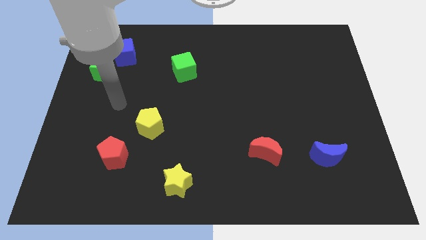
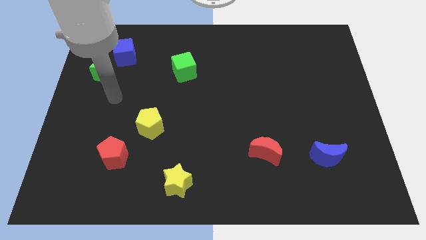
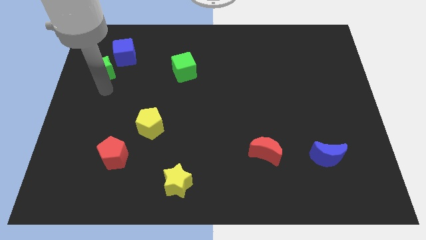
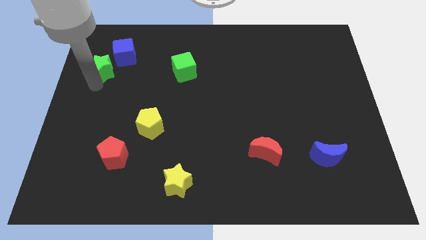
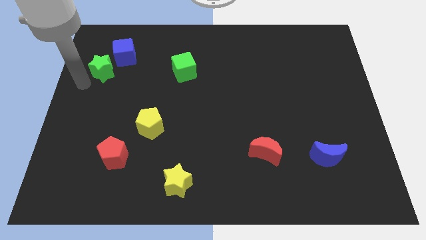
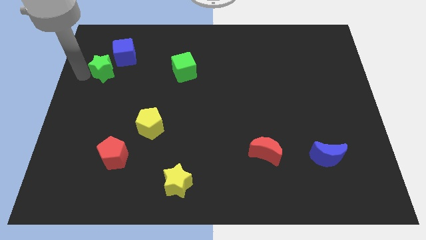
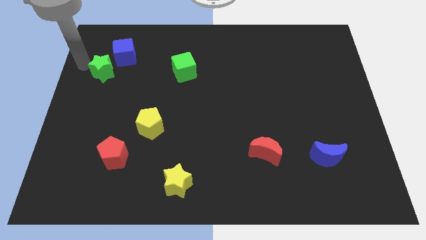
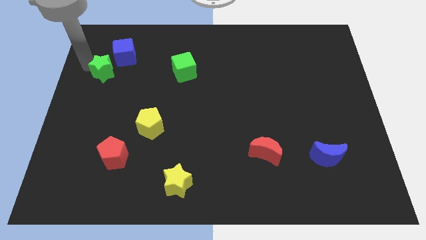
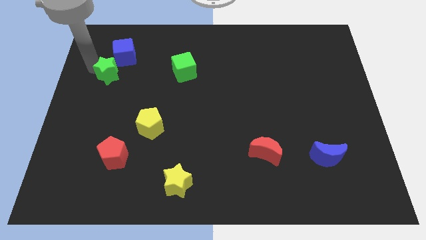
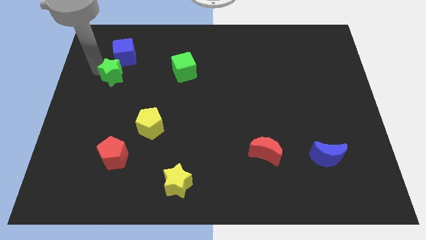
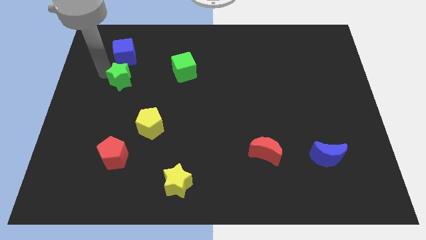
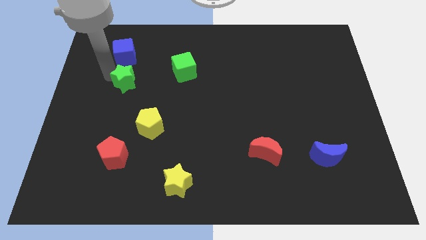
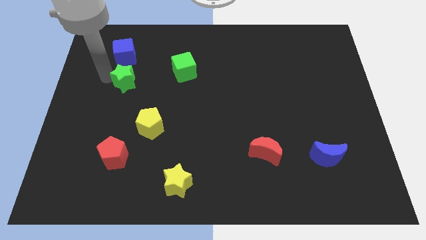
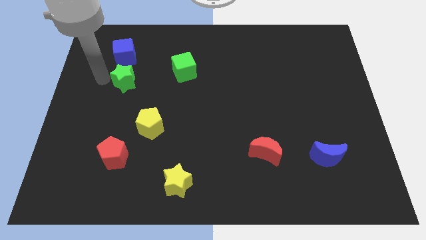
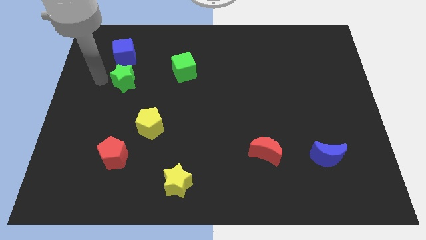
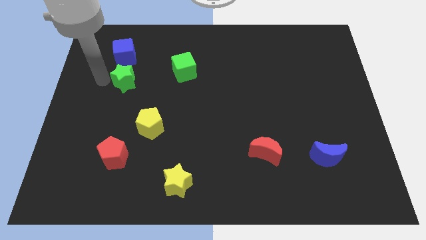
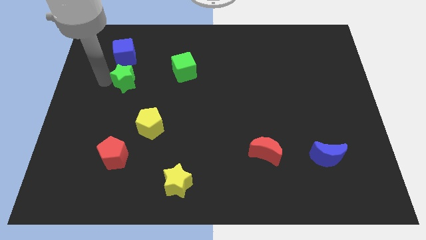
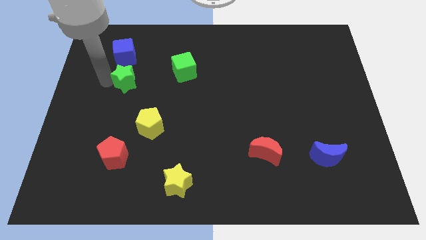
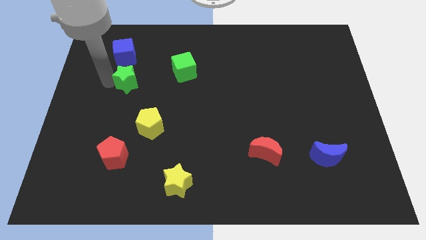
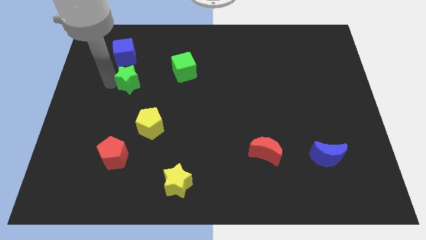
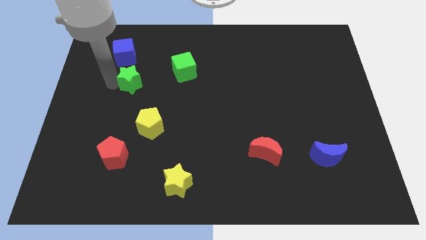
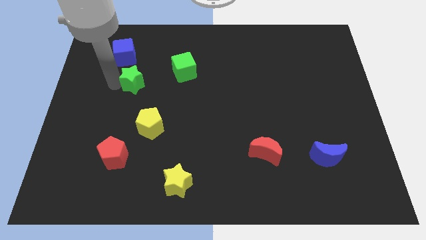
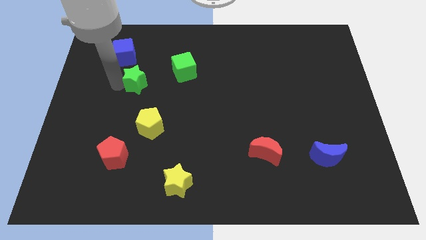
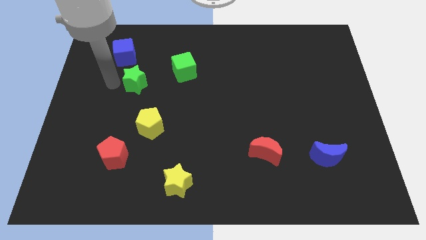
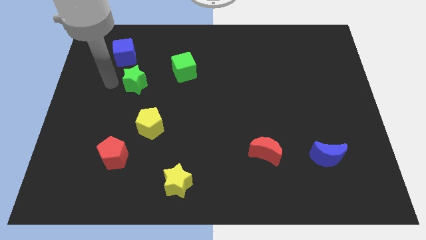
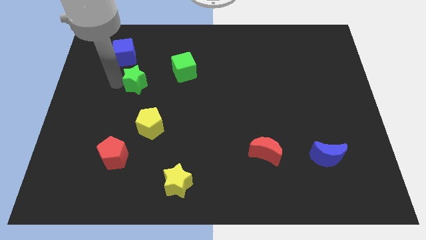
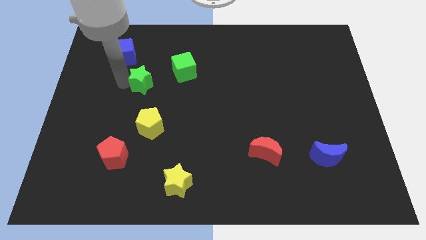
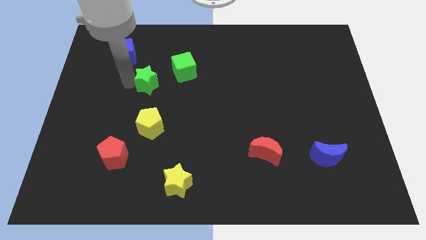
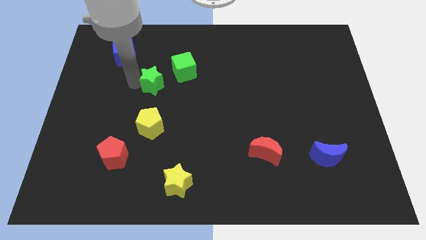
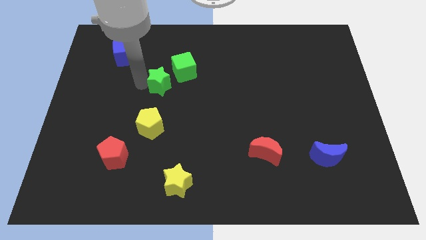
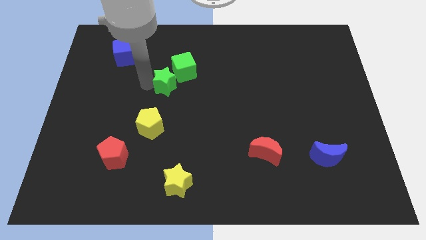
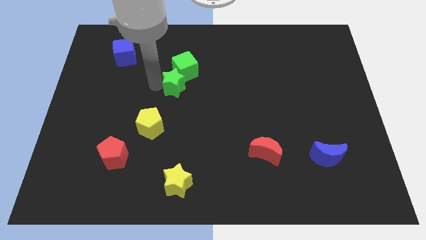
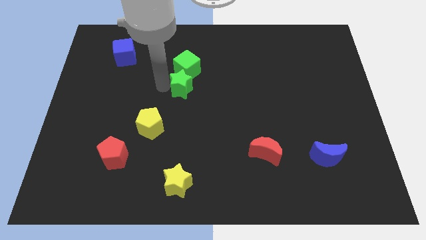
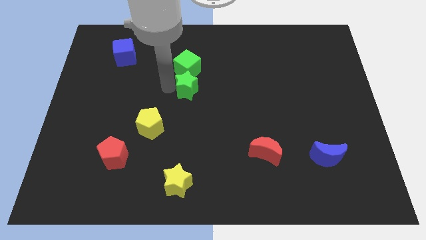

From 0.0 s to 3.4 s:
move the green star to the right

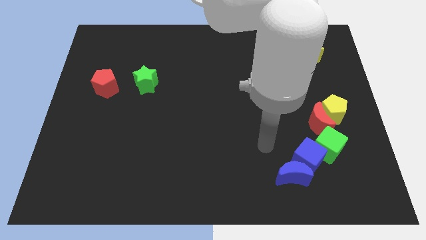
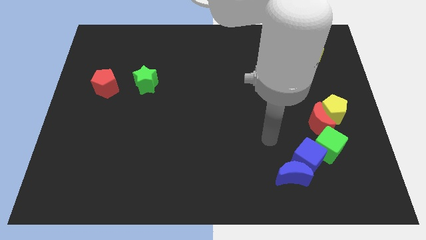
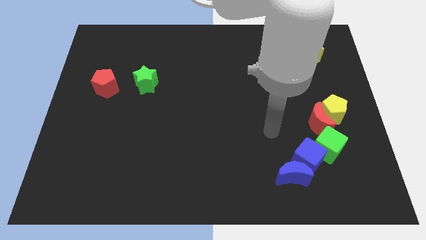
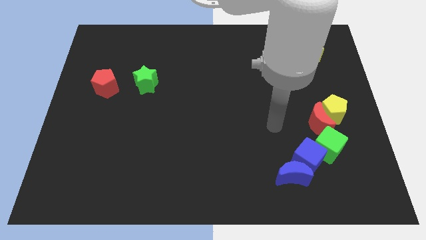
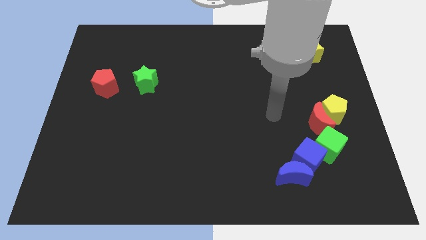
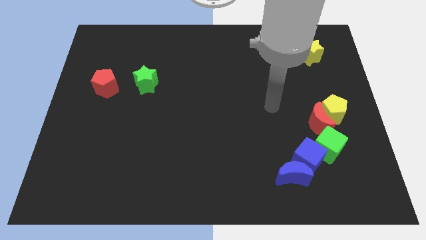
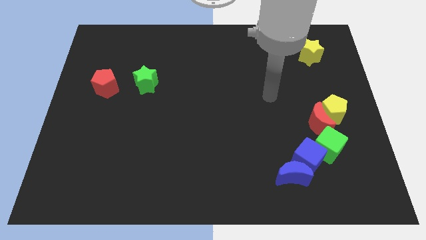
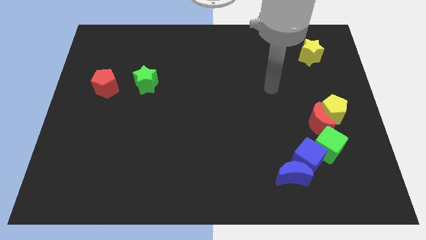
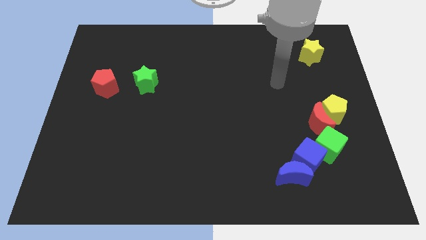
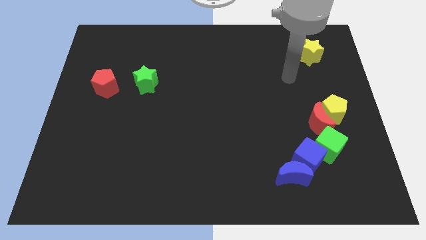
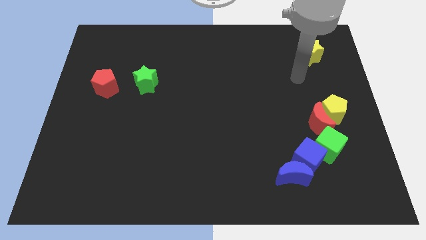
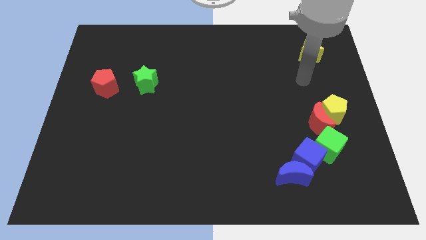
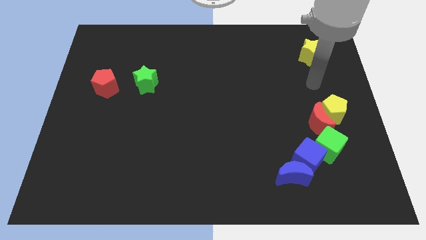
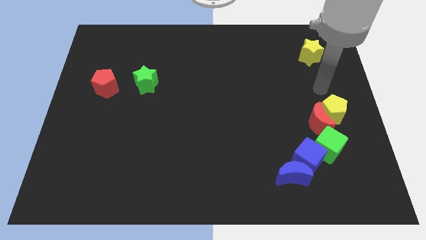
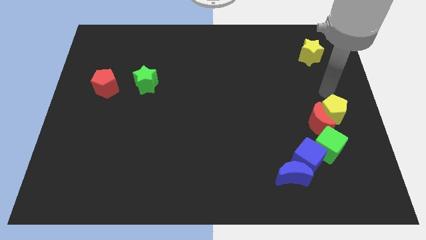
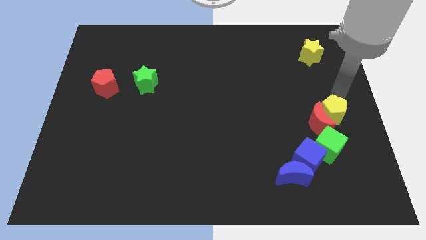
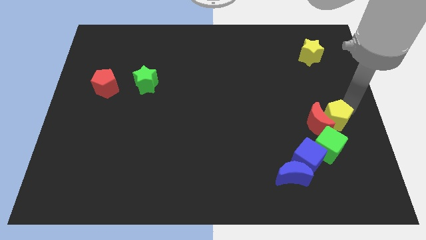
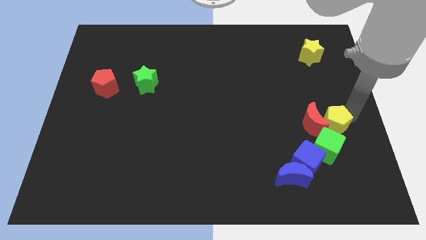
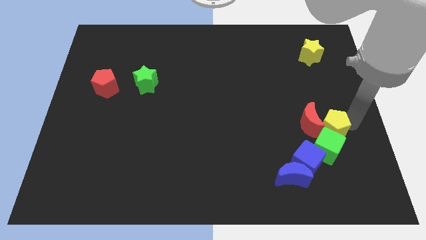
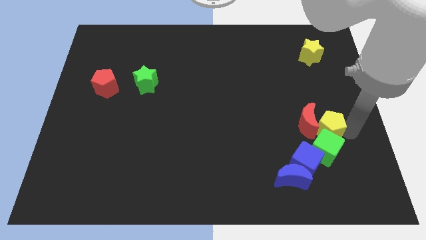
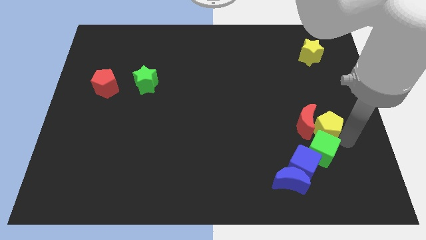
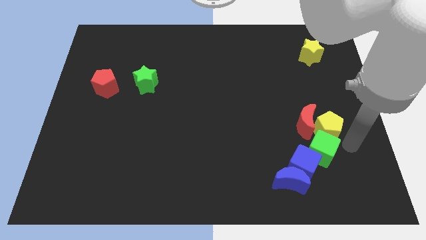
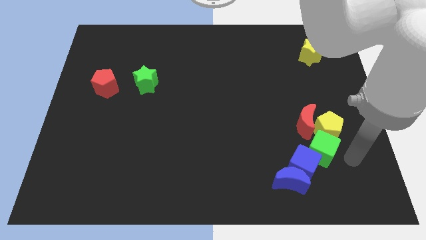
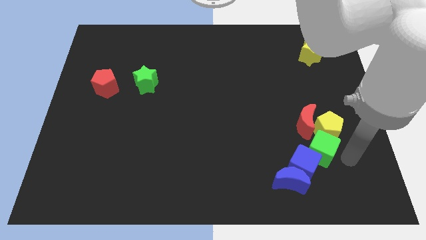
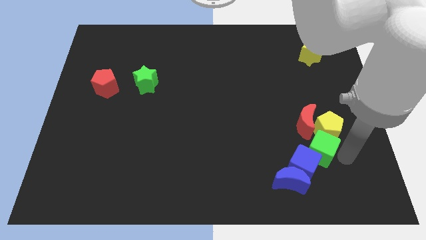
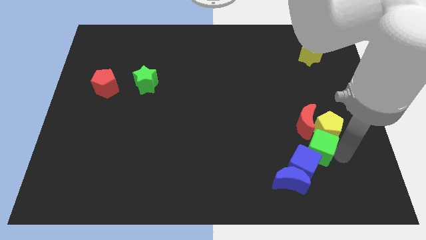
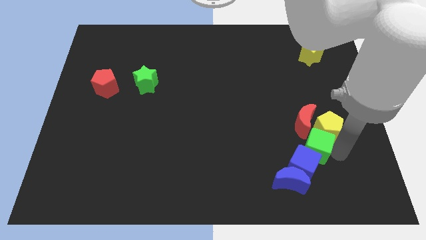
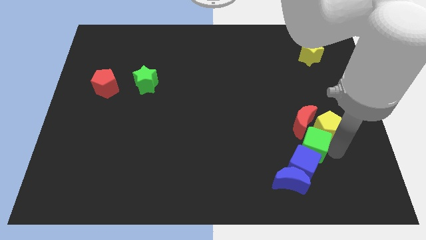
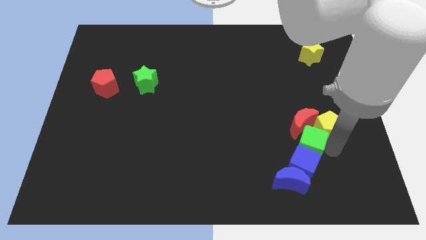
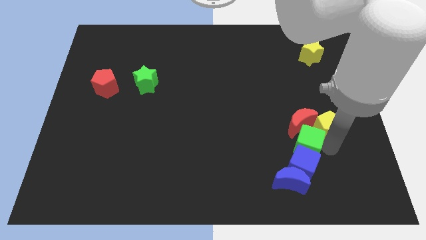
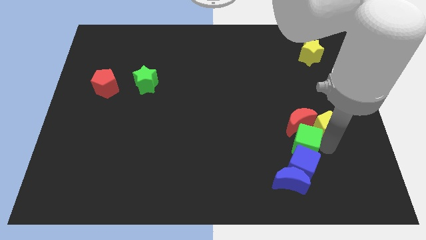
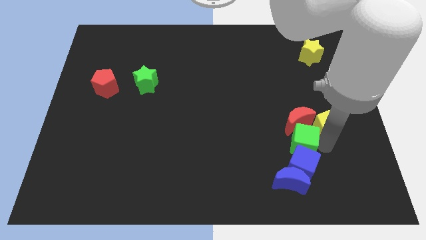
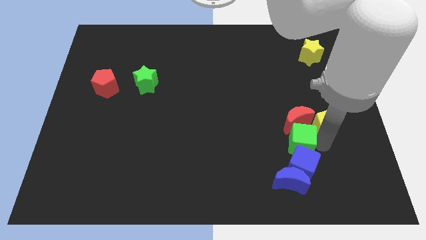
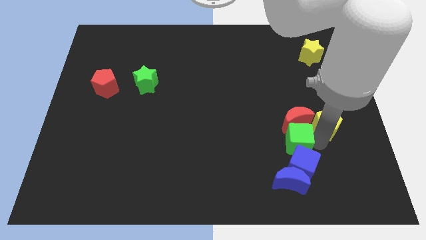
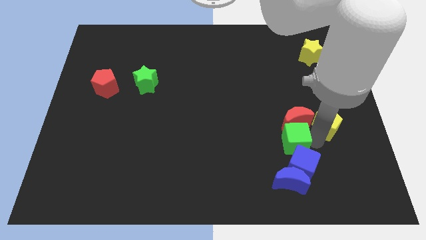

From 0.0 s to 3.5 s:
slide the green cube a little to the left

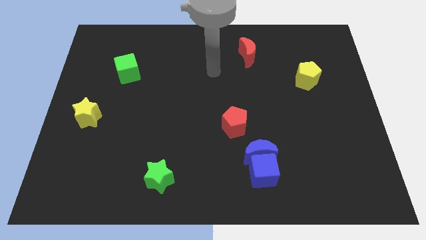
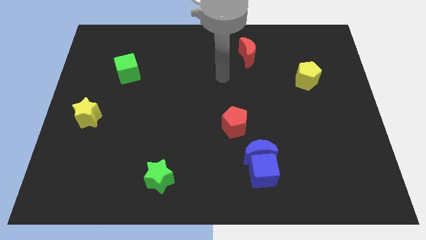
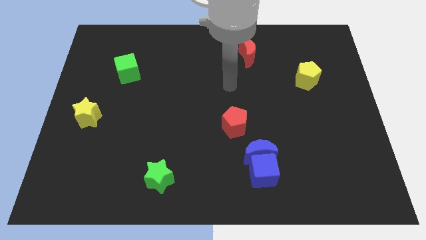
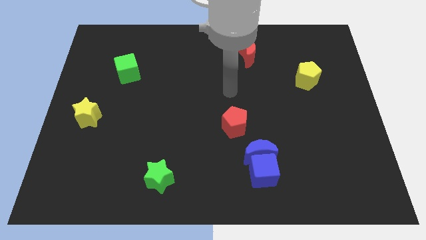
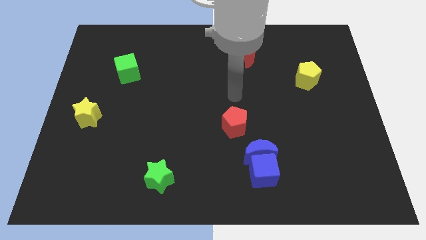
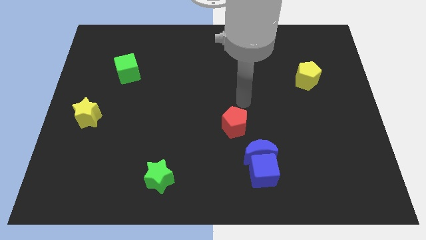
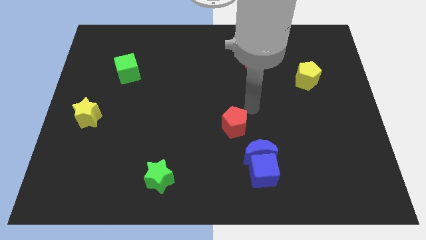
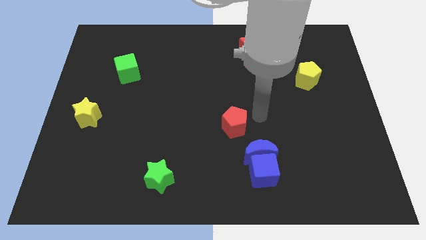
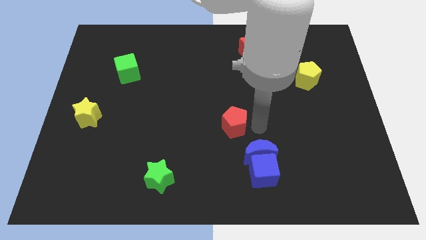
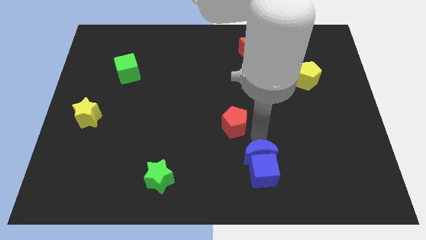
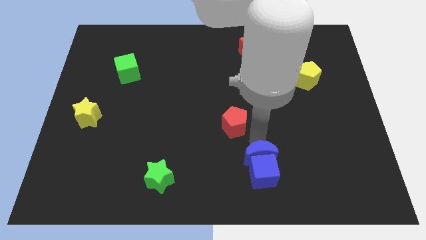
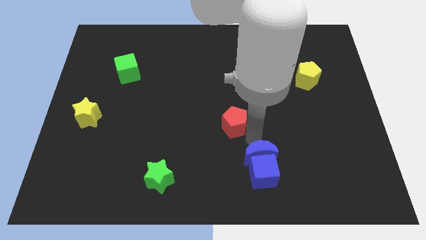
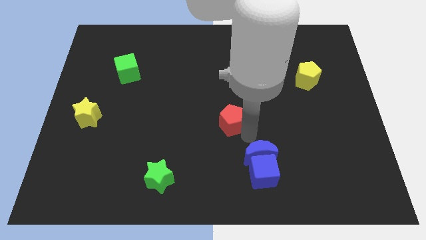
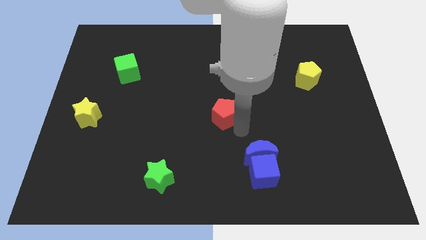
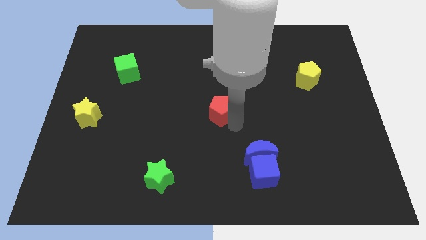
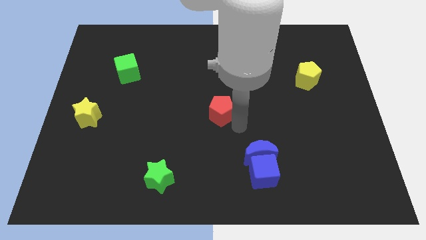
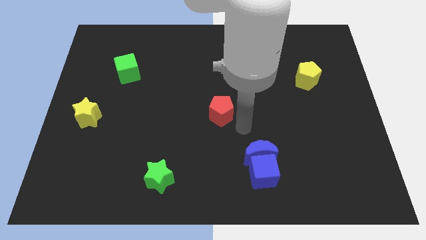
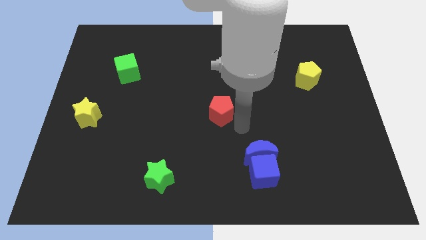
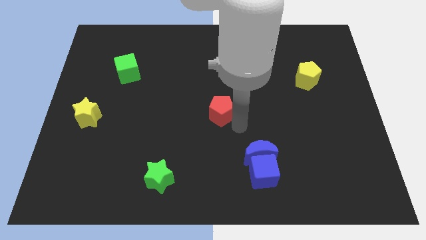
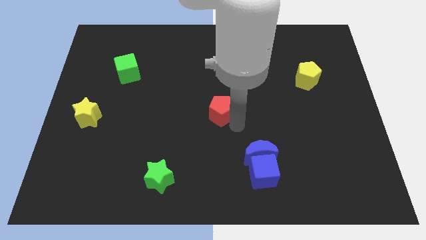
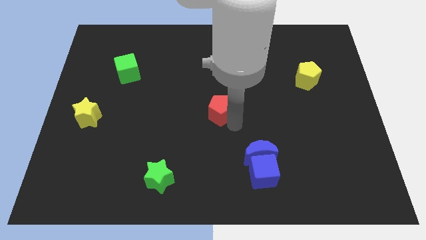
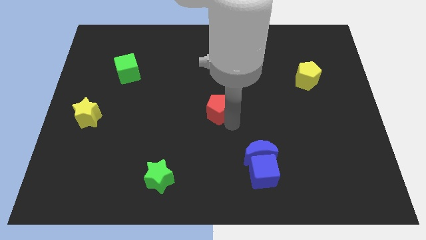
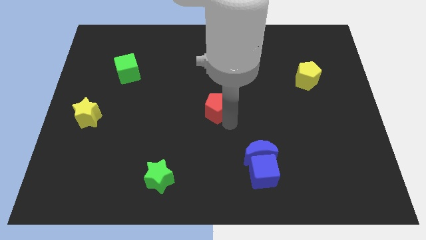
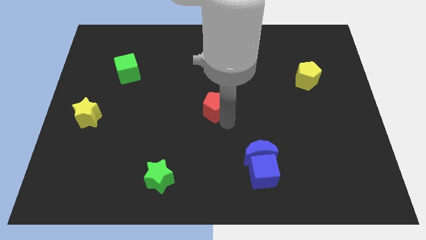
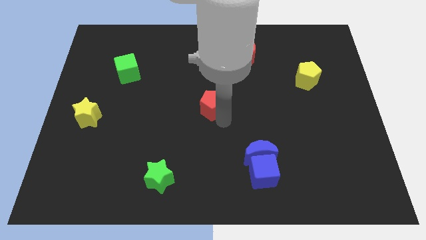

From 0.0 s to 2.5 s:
slide the red pentagon a bit diagonally upwards and to the left
